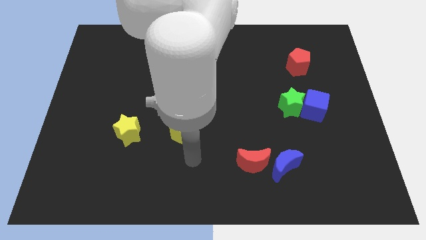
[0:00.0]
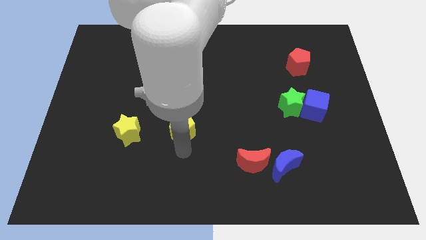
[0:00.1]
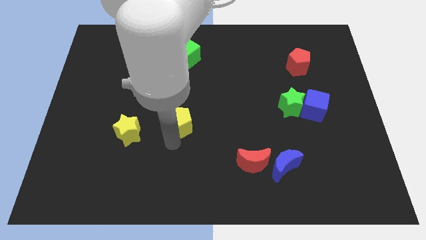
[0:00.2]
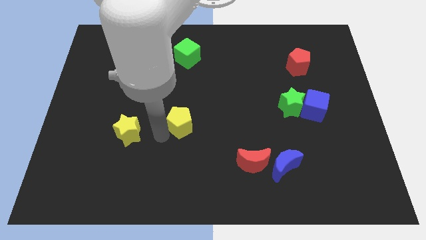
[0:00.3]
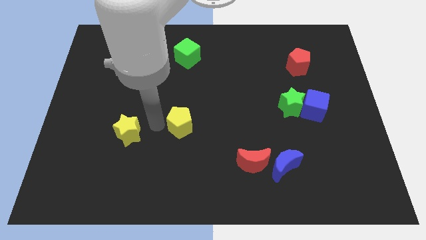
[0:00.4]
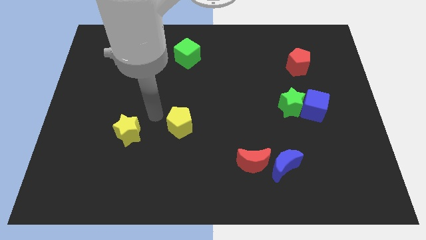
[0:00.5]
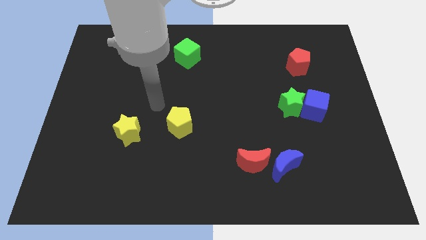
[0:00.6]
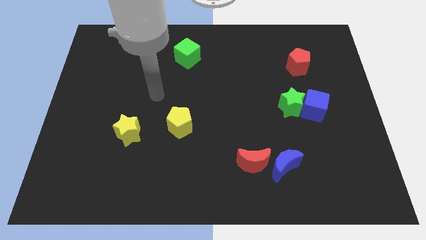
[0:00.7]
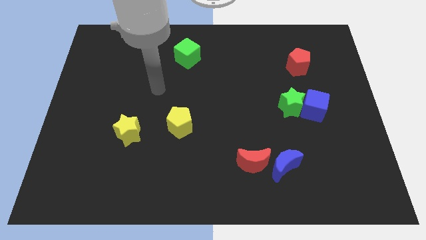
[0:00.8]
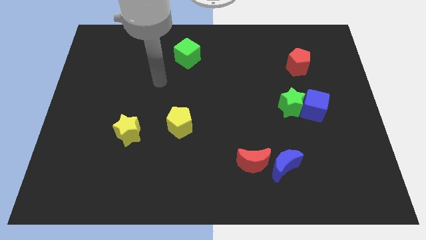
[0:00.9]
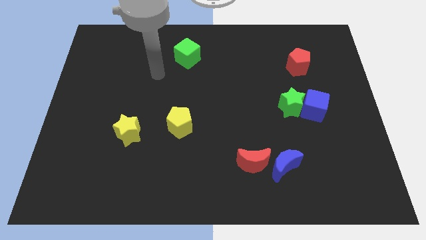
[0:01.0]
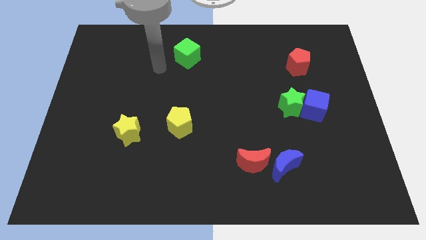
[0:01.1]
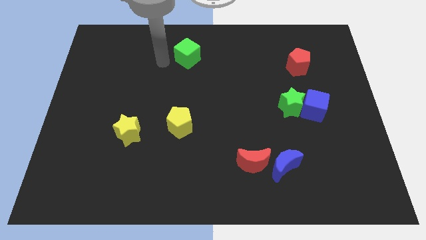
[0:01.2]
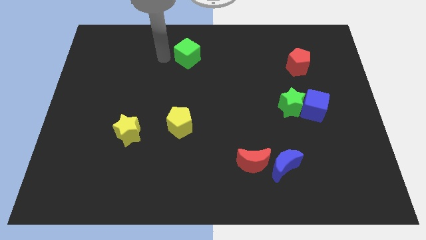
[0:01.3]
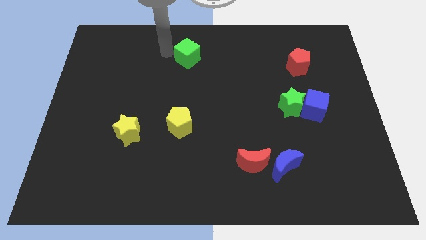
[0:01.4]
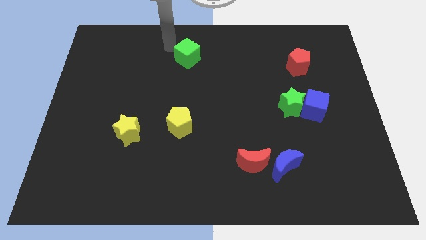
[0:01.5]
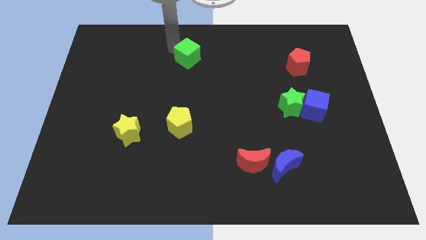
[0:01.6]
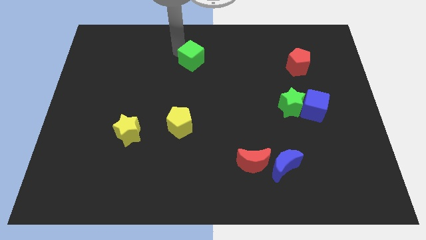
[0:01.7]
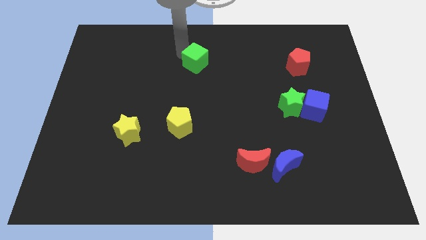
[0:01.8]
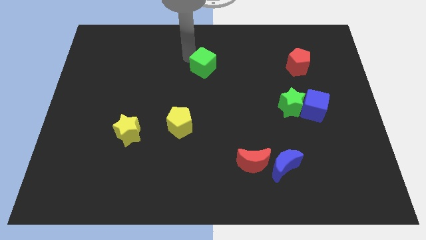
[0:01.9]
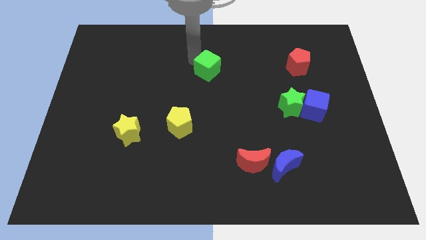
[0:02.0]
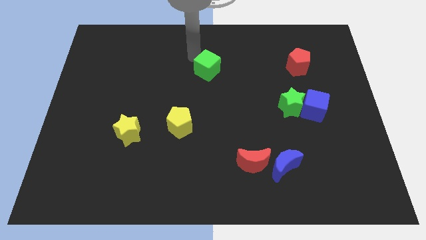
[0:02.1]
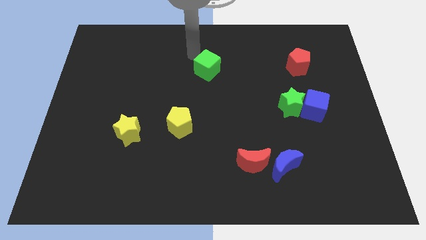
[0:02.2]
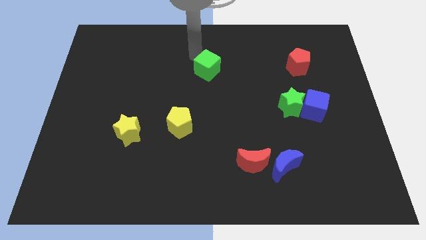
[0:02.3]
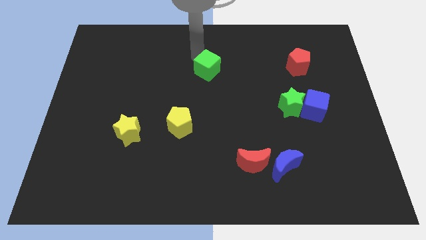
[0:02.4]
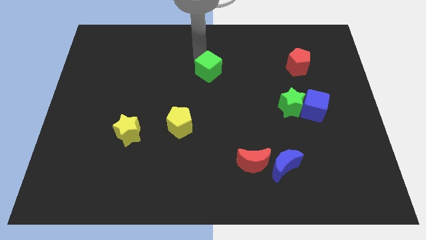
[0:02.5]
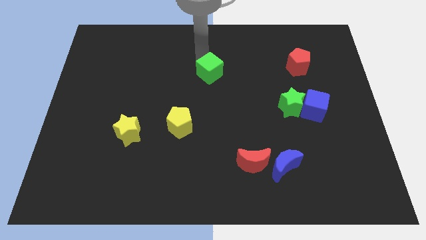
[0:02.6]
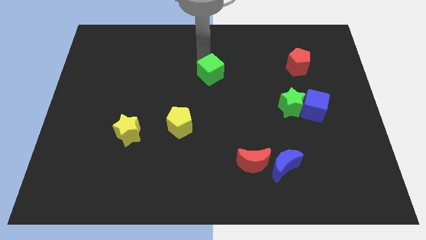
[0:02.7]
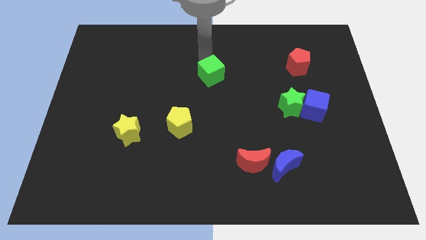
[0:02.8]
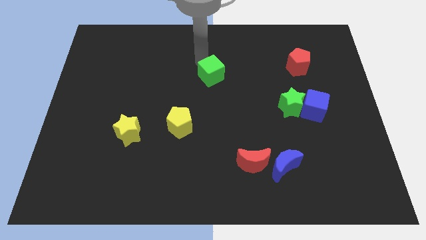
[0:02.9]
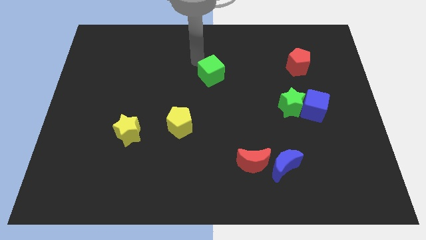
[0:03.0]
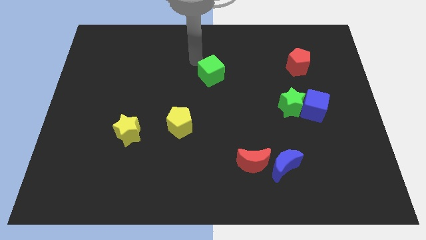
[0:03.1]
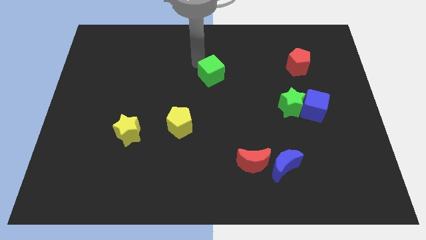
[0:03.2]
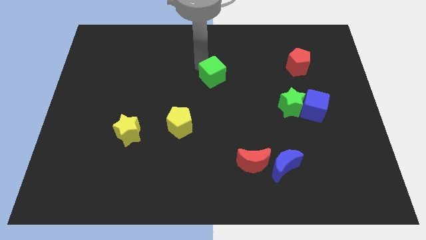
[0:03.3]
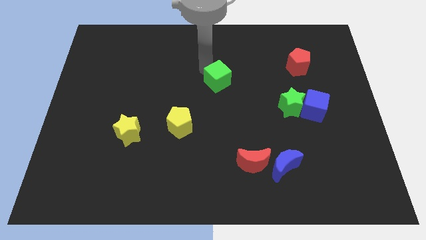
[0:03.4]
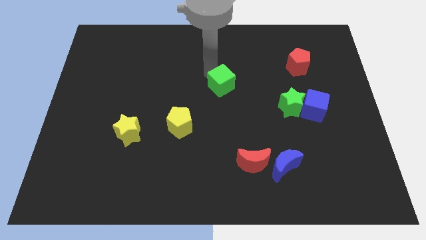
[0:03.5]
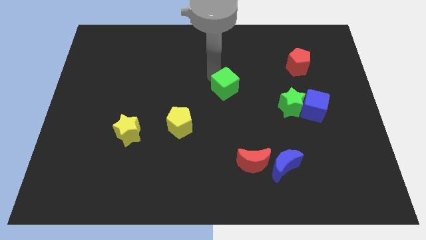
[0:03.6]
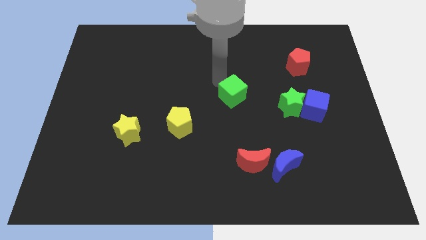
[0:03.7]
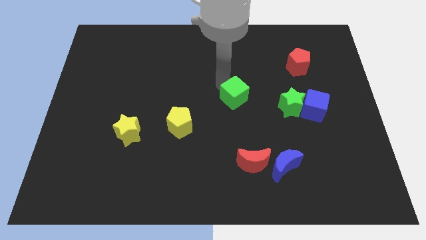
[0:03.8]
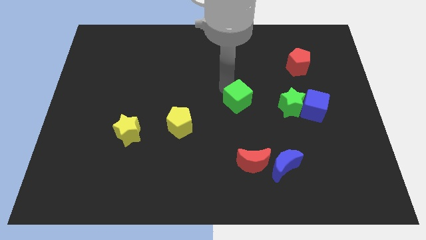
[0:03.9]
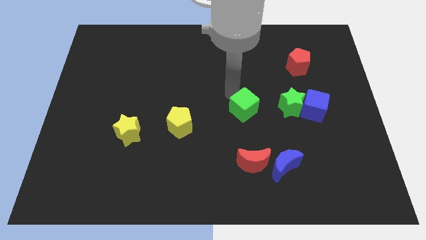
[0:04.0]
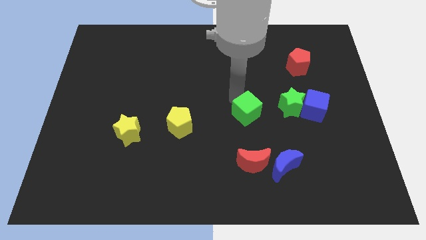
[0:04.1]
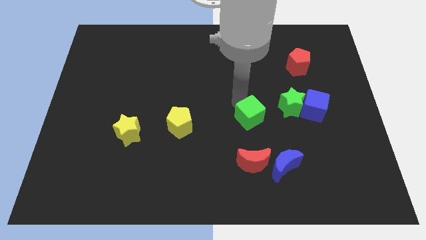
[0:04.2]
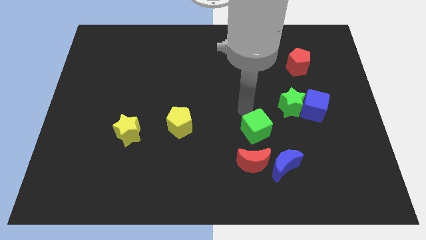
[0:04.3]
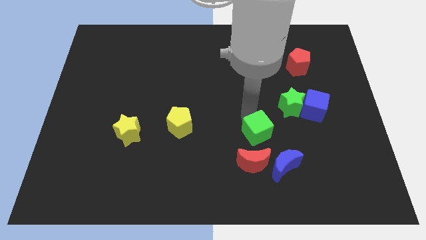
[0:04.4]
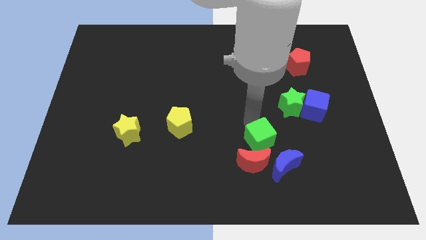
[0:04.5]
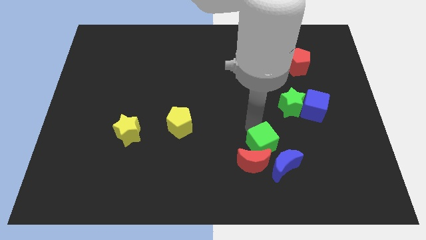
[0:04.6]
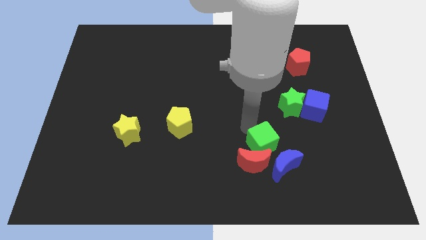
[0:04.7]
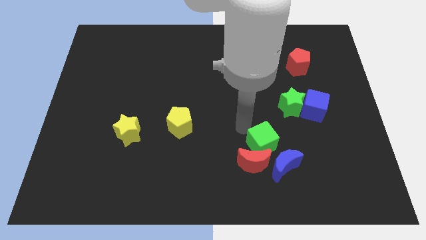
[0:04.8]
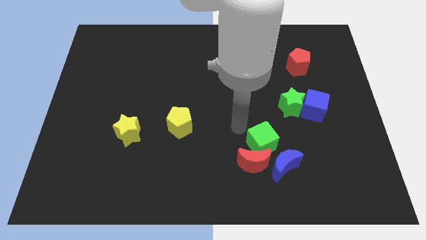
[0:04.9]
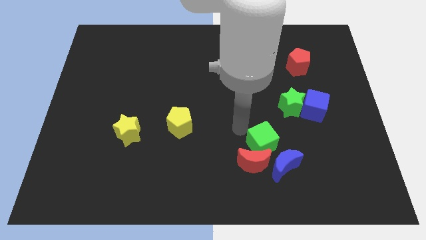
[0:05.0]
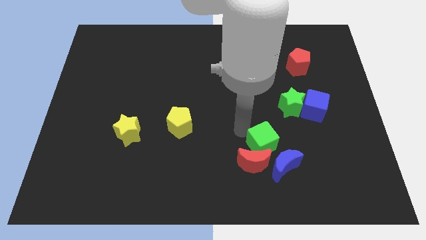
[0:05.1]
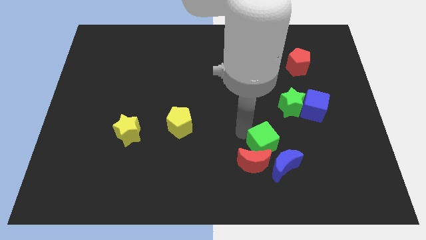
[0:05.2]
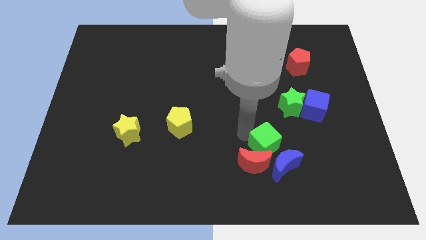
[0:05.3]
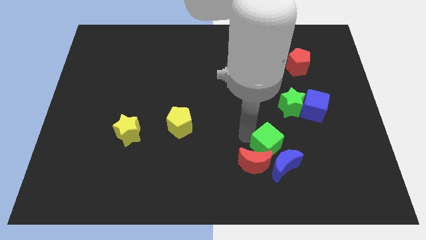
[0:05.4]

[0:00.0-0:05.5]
put the green cube close to the blue moon

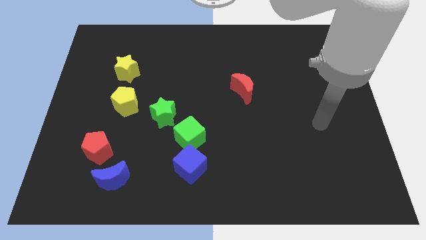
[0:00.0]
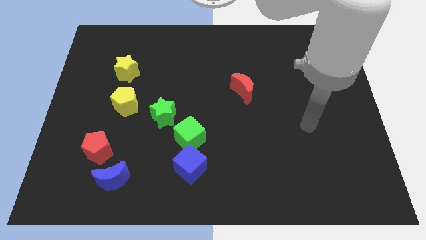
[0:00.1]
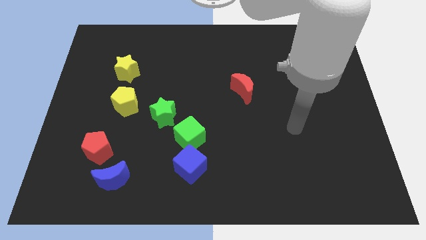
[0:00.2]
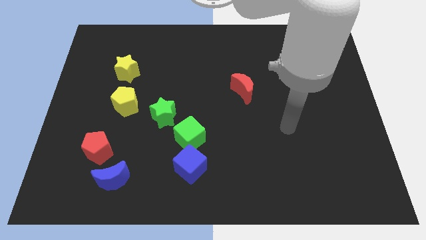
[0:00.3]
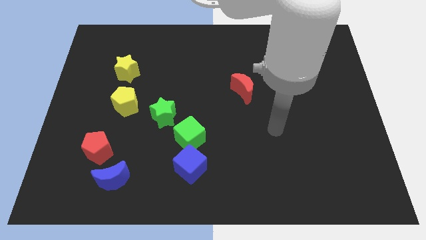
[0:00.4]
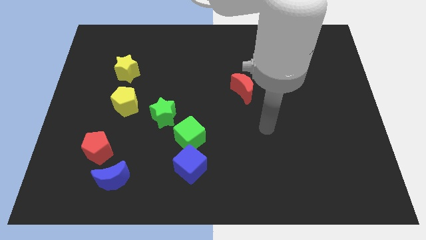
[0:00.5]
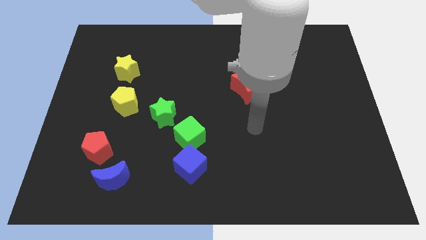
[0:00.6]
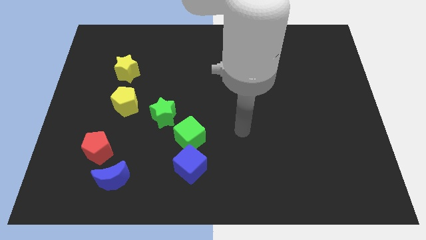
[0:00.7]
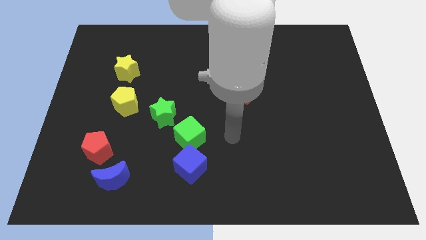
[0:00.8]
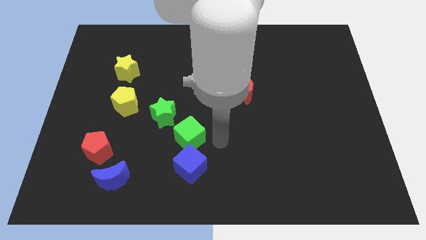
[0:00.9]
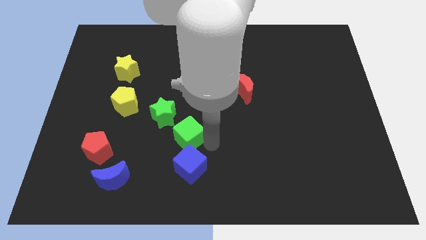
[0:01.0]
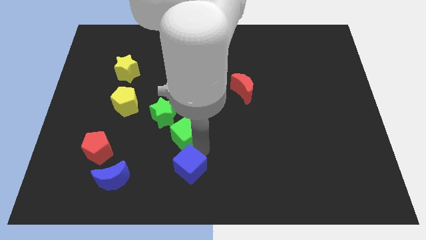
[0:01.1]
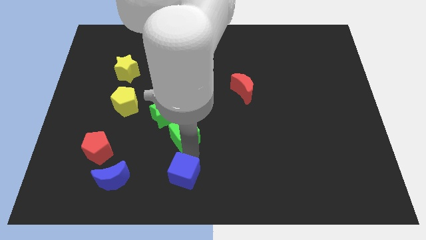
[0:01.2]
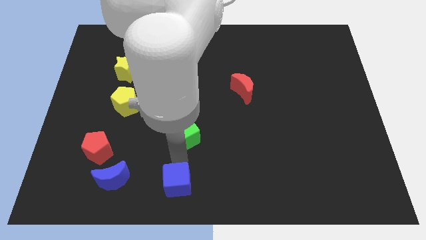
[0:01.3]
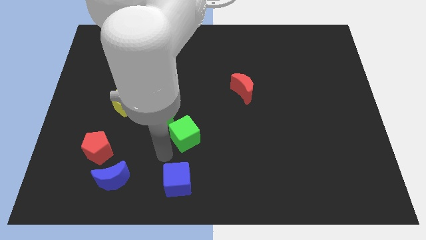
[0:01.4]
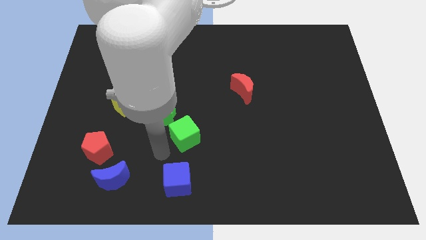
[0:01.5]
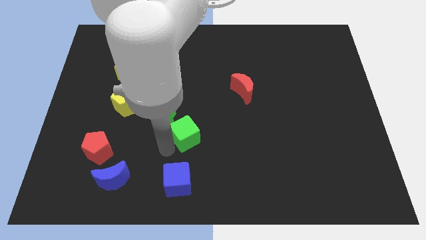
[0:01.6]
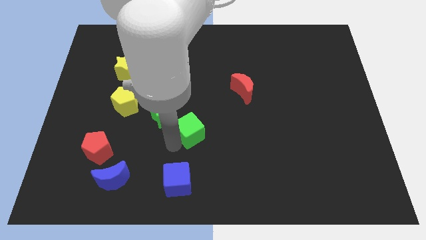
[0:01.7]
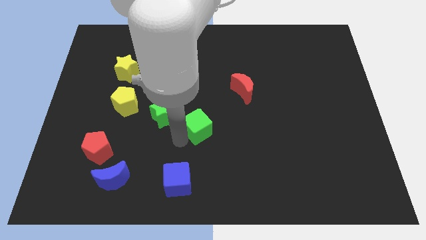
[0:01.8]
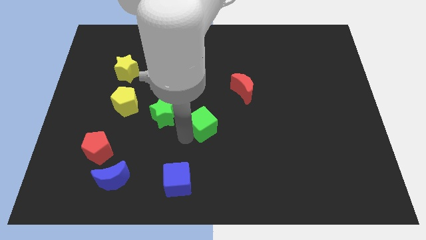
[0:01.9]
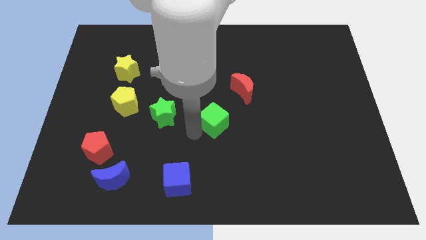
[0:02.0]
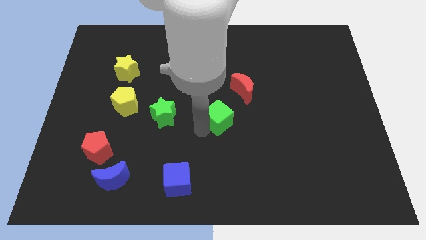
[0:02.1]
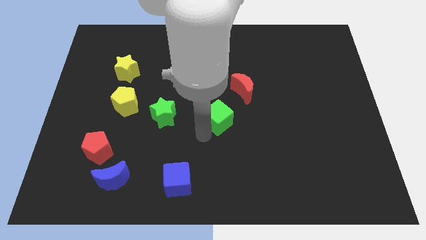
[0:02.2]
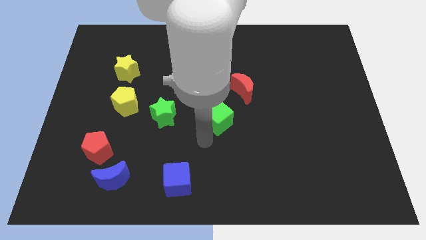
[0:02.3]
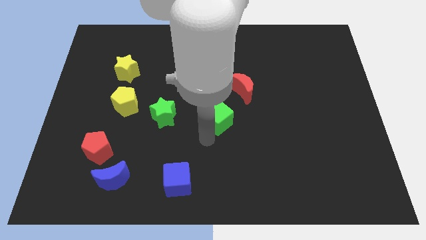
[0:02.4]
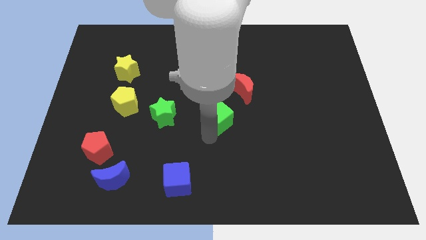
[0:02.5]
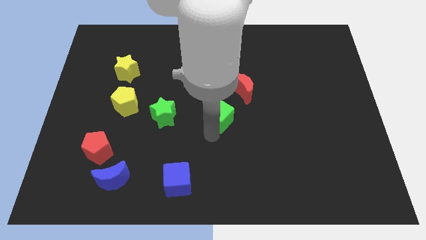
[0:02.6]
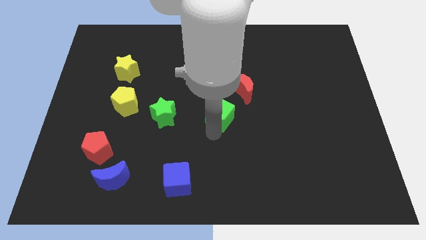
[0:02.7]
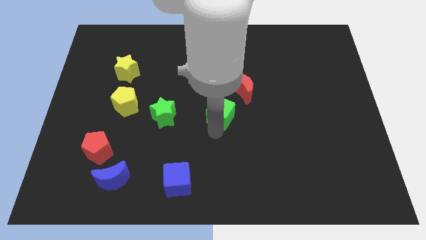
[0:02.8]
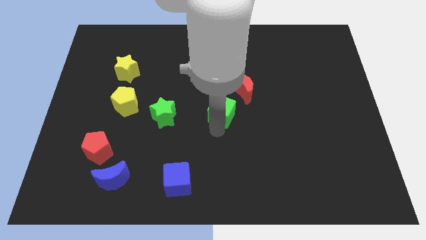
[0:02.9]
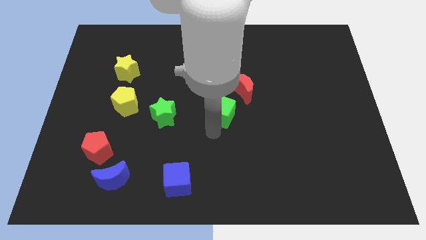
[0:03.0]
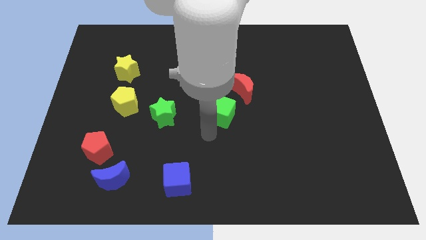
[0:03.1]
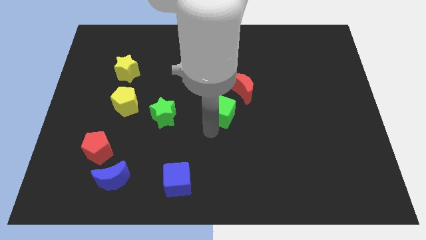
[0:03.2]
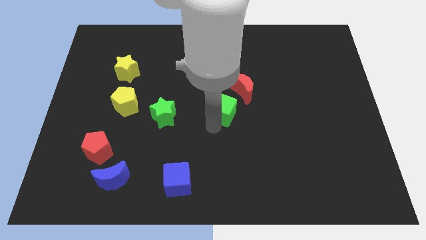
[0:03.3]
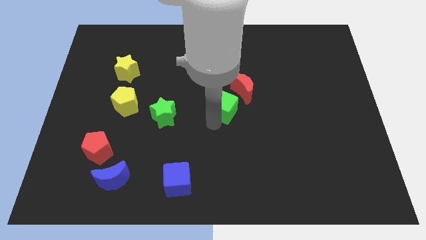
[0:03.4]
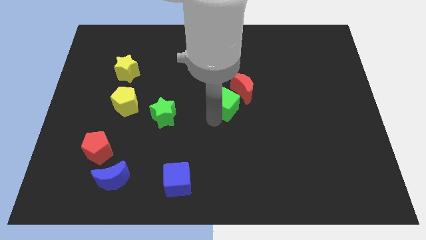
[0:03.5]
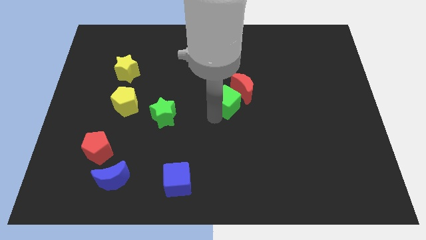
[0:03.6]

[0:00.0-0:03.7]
push the green cube next to the red moon
